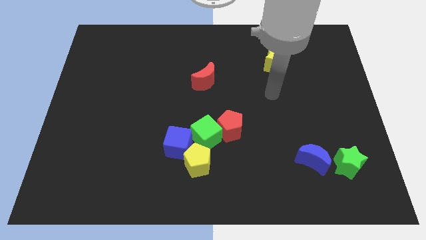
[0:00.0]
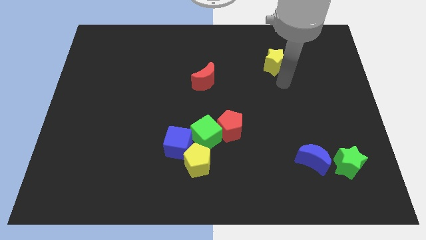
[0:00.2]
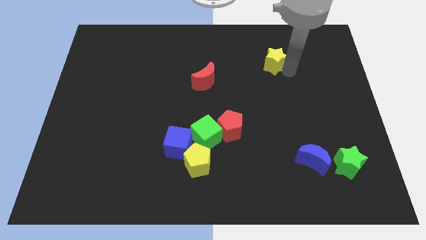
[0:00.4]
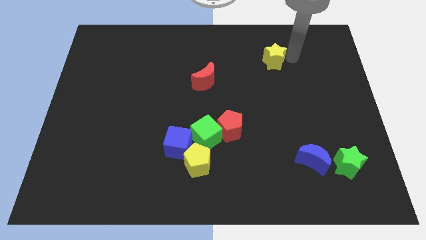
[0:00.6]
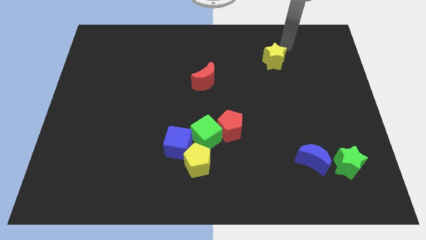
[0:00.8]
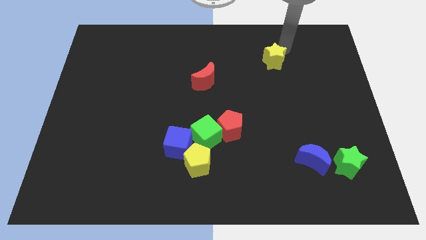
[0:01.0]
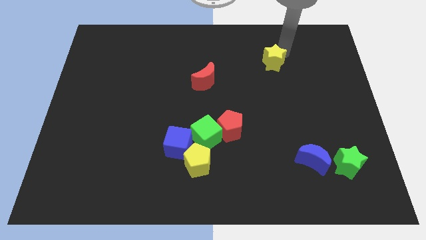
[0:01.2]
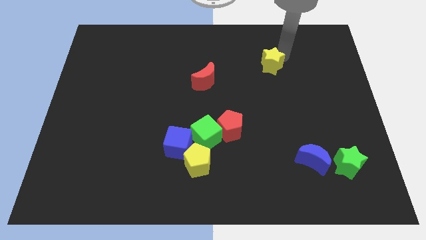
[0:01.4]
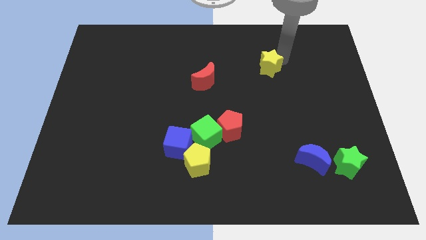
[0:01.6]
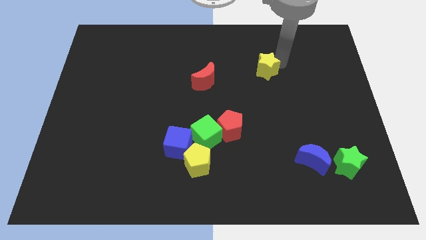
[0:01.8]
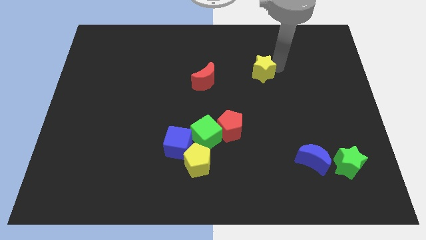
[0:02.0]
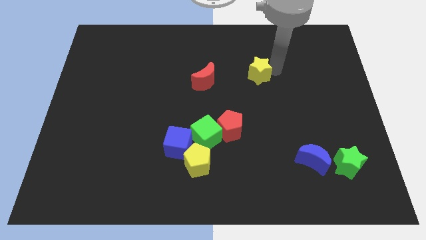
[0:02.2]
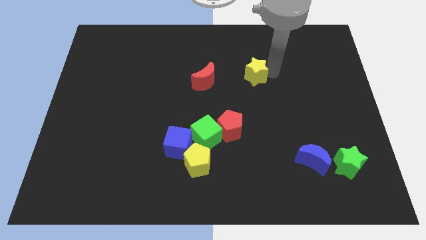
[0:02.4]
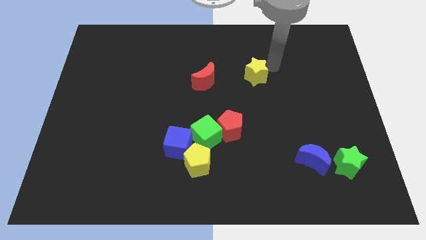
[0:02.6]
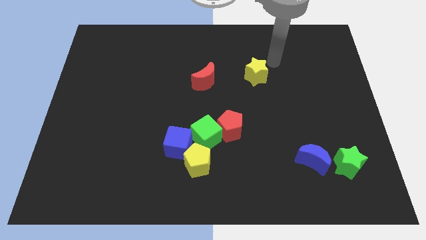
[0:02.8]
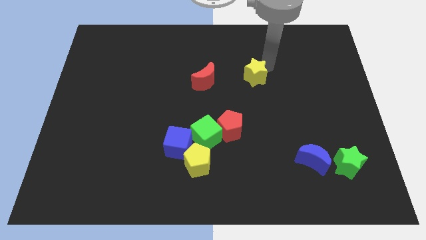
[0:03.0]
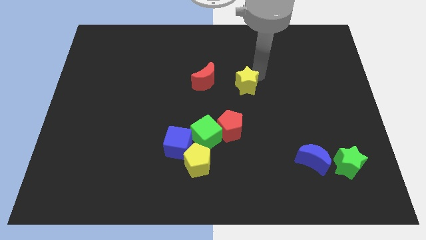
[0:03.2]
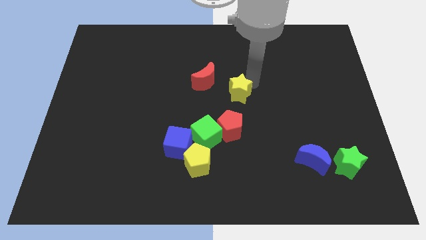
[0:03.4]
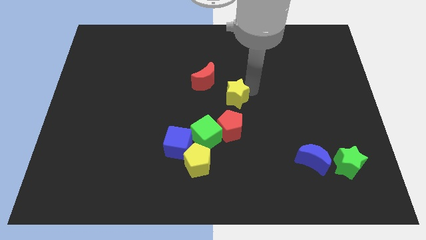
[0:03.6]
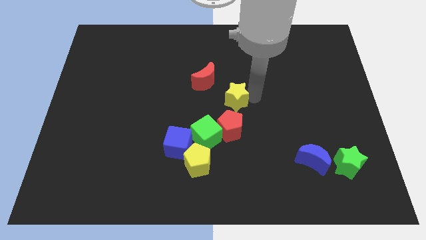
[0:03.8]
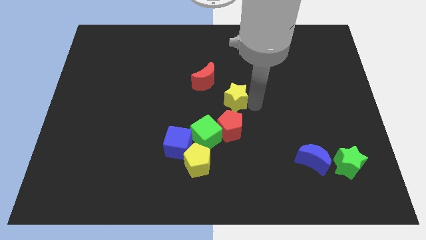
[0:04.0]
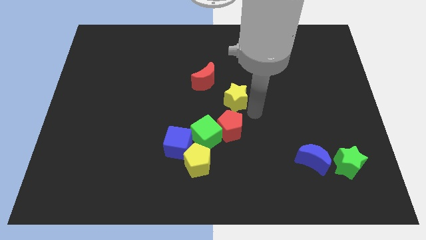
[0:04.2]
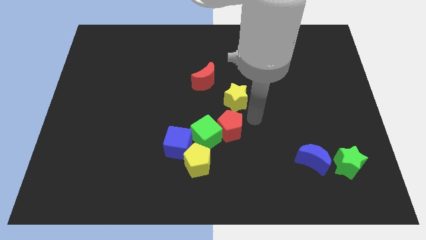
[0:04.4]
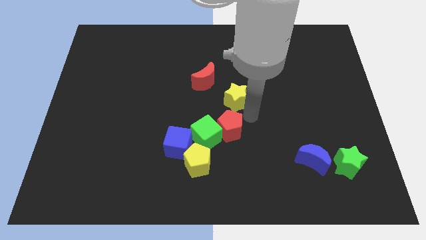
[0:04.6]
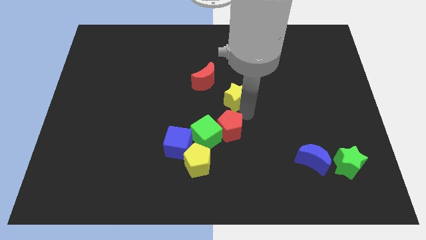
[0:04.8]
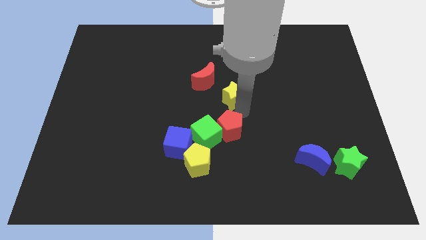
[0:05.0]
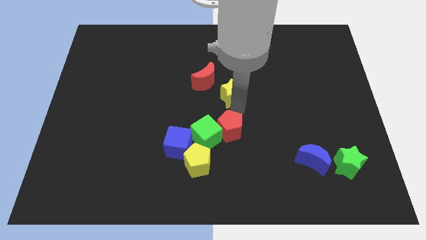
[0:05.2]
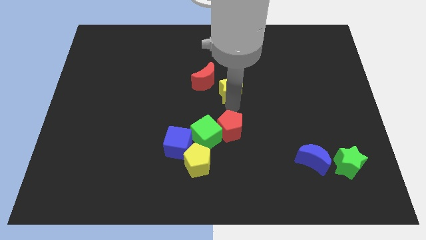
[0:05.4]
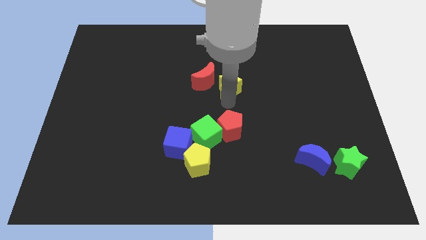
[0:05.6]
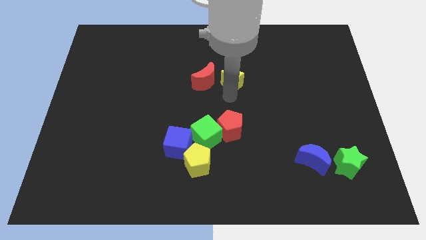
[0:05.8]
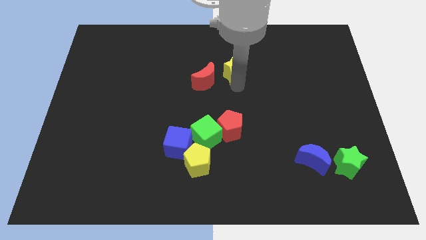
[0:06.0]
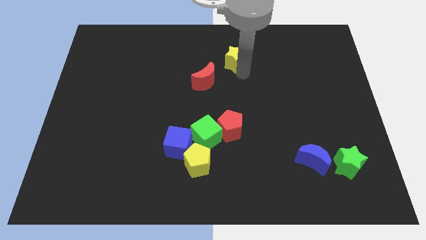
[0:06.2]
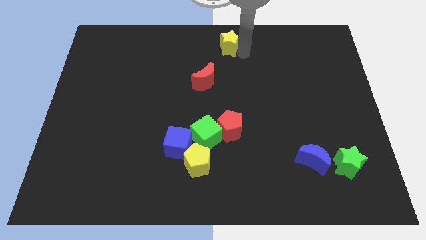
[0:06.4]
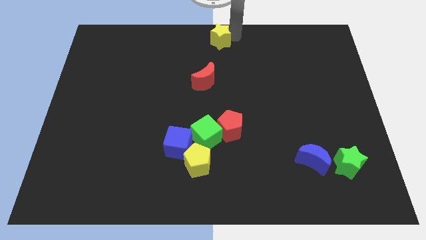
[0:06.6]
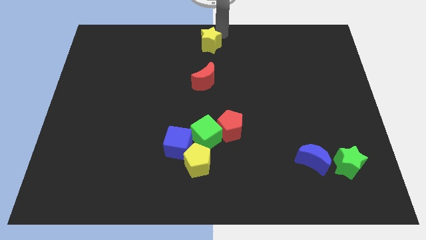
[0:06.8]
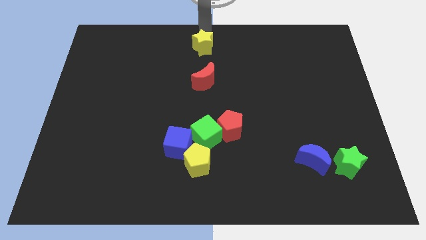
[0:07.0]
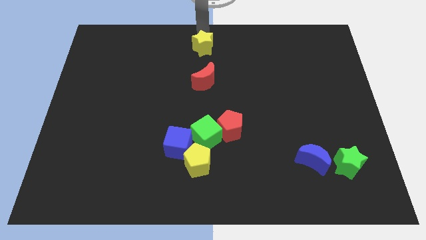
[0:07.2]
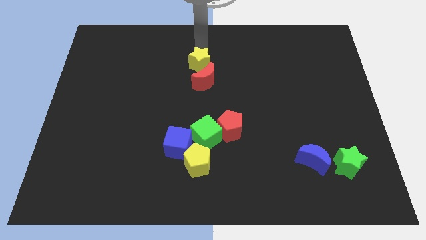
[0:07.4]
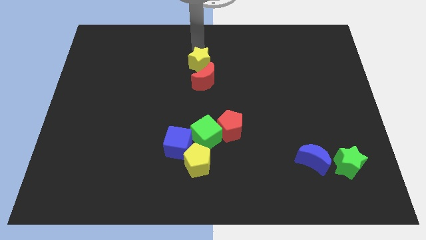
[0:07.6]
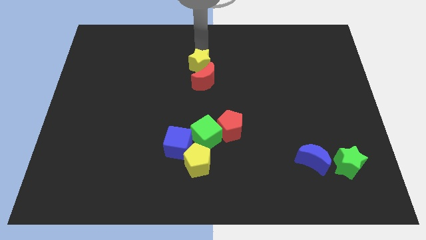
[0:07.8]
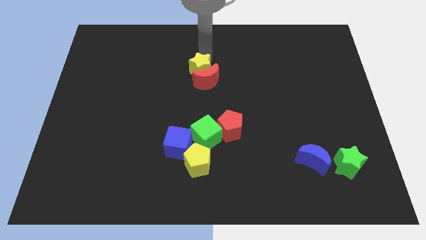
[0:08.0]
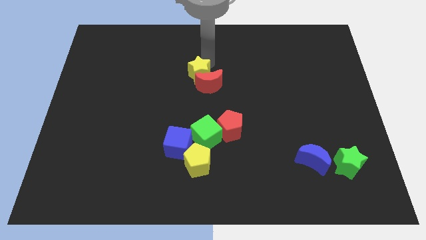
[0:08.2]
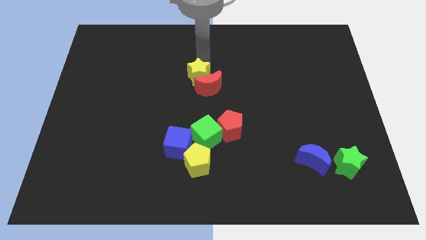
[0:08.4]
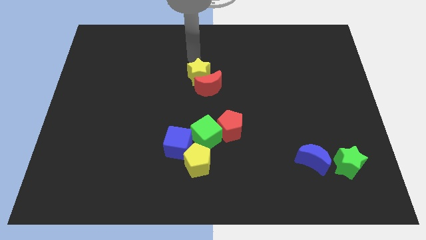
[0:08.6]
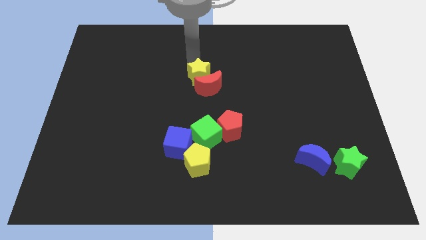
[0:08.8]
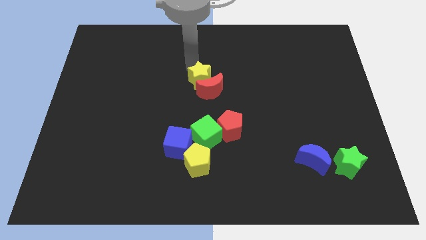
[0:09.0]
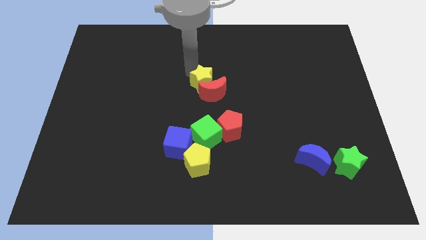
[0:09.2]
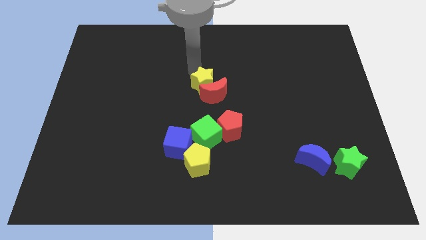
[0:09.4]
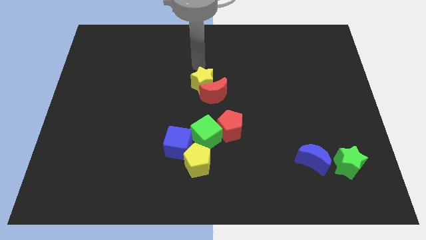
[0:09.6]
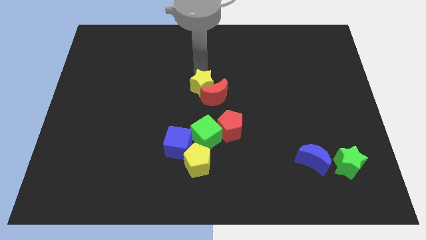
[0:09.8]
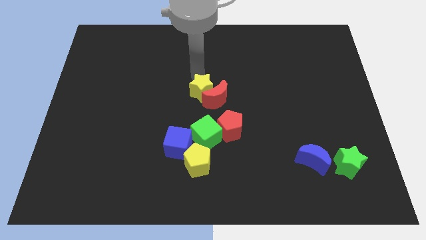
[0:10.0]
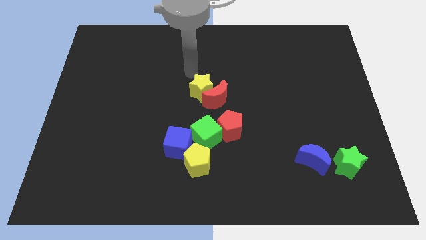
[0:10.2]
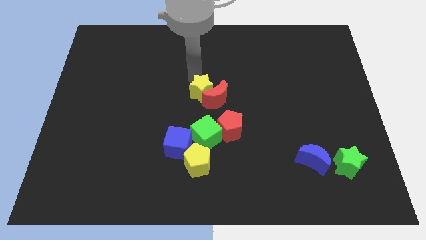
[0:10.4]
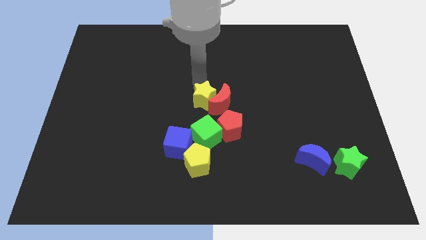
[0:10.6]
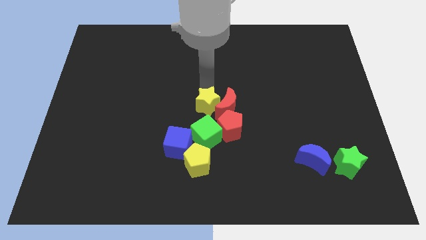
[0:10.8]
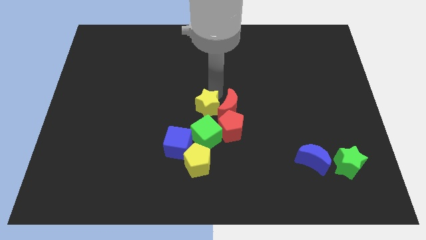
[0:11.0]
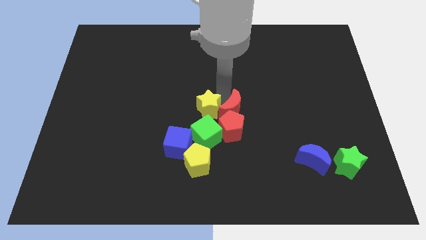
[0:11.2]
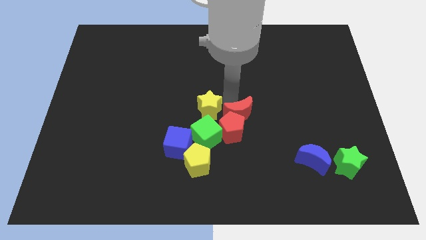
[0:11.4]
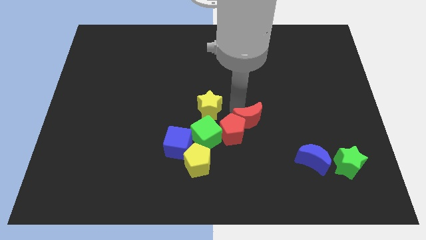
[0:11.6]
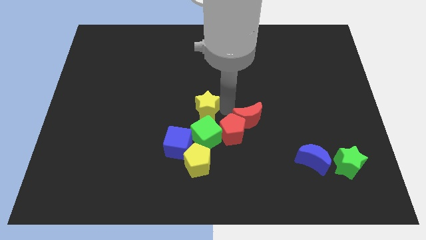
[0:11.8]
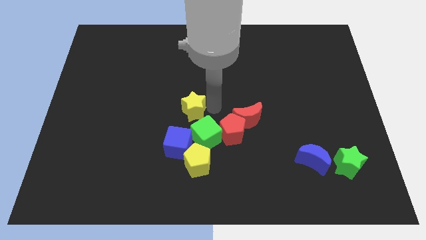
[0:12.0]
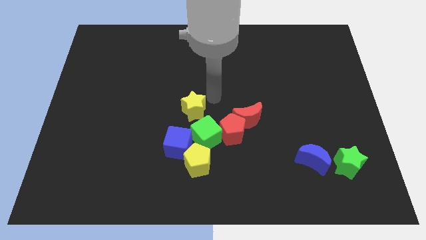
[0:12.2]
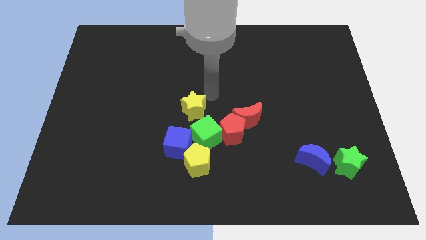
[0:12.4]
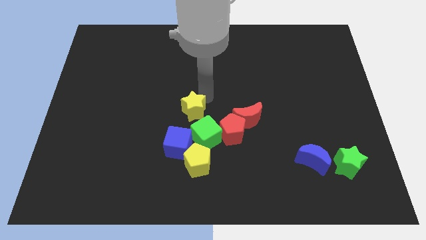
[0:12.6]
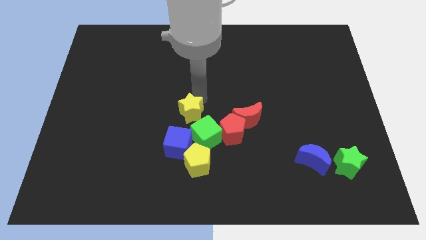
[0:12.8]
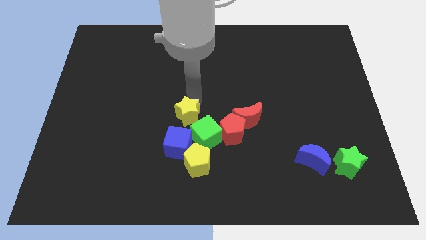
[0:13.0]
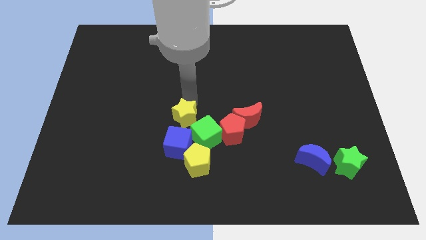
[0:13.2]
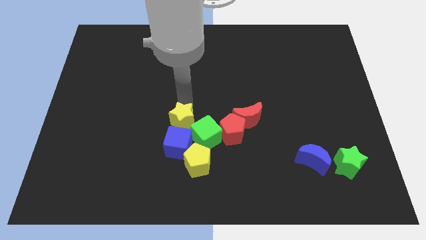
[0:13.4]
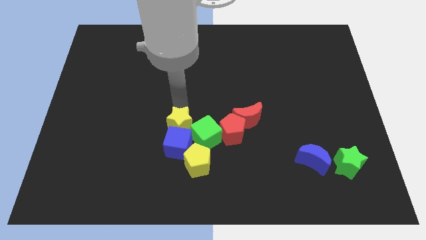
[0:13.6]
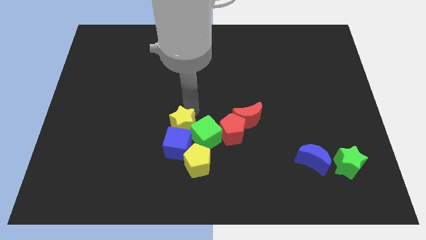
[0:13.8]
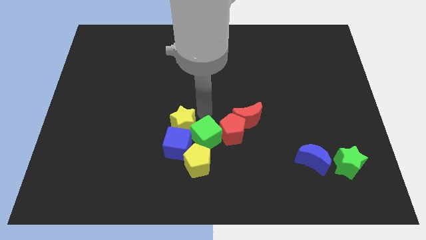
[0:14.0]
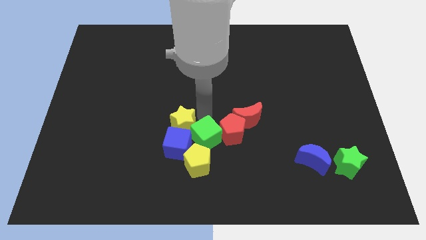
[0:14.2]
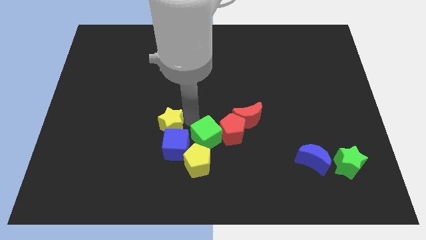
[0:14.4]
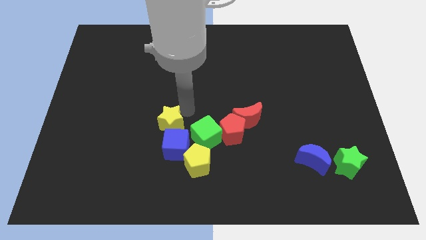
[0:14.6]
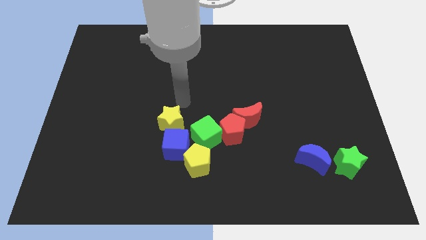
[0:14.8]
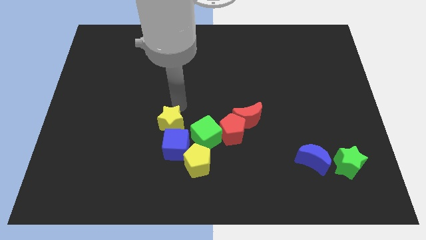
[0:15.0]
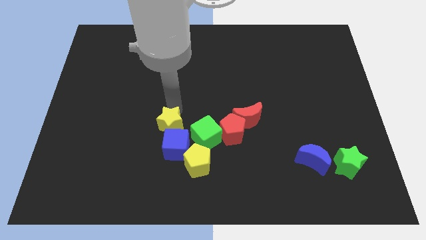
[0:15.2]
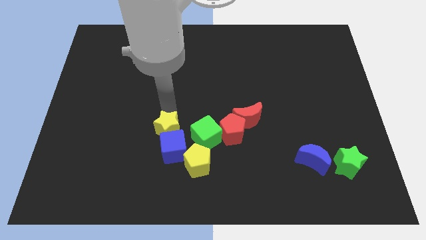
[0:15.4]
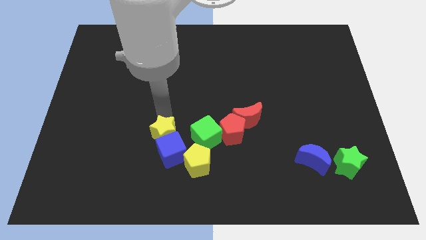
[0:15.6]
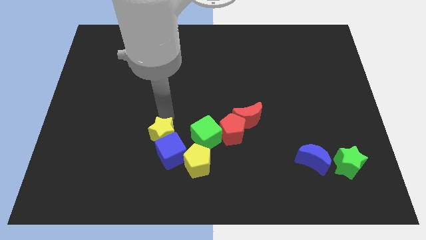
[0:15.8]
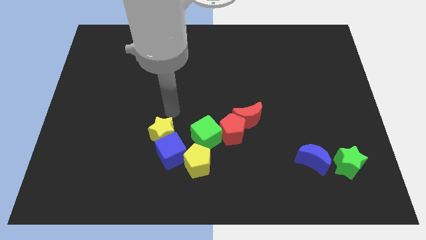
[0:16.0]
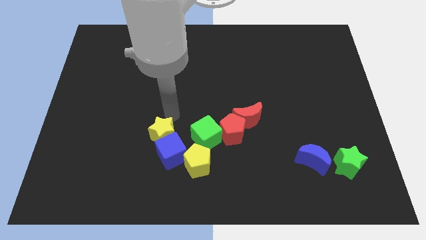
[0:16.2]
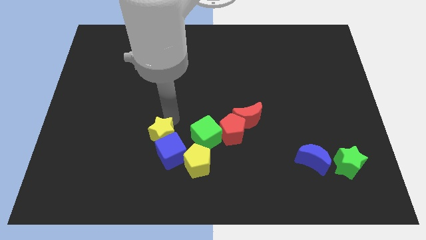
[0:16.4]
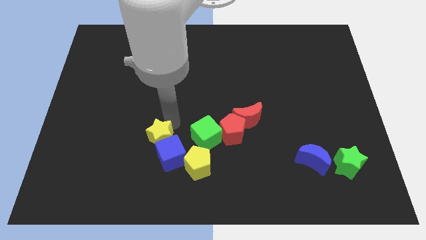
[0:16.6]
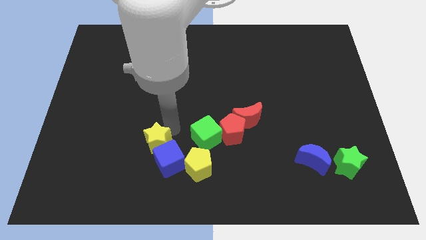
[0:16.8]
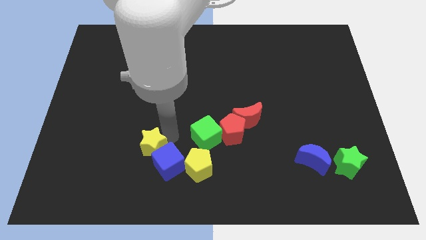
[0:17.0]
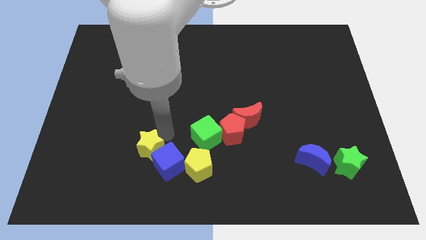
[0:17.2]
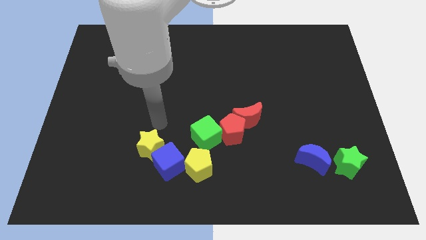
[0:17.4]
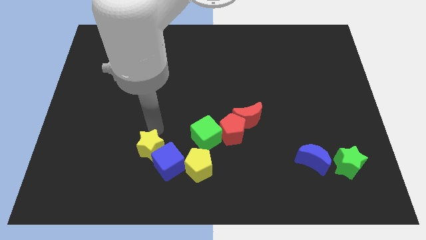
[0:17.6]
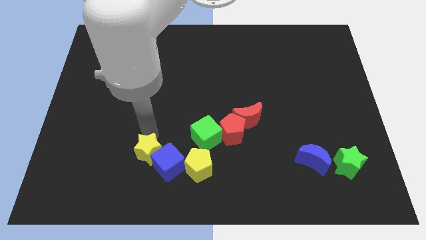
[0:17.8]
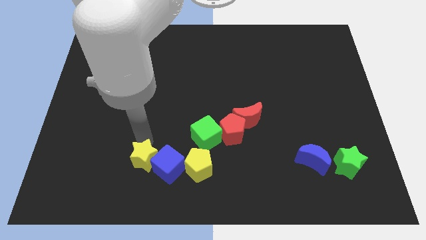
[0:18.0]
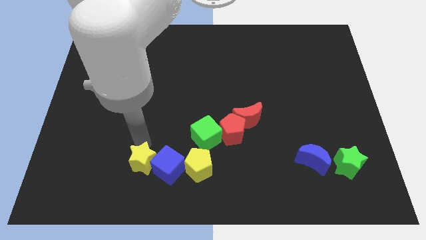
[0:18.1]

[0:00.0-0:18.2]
put the yellow star to the bottom left side of the blue cube
